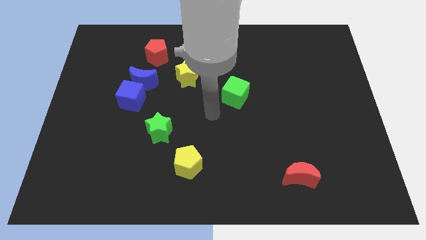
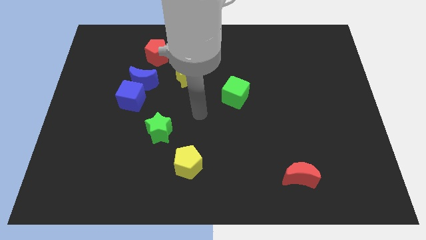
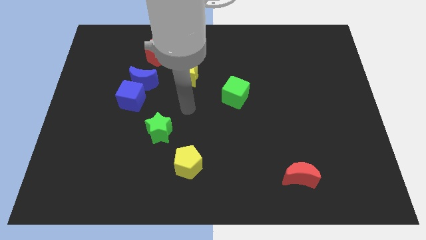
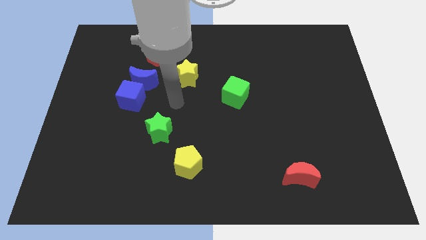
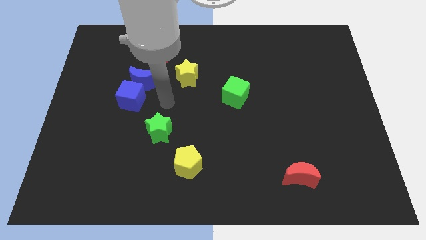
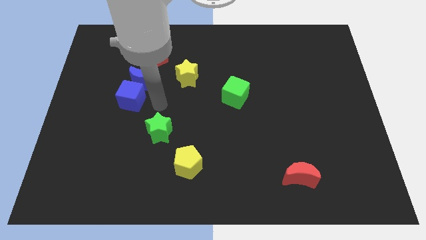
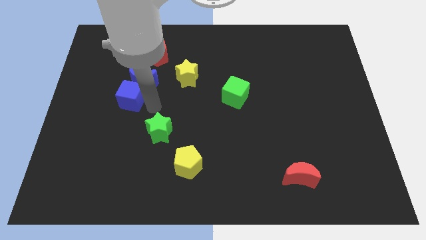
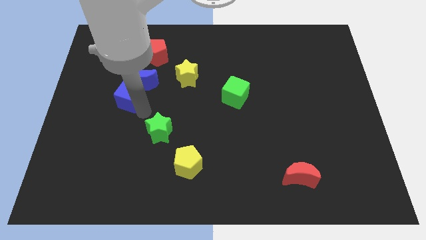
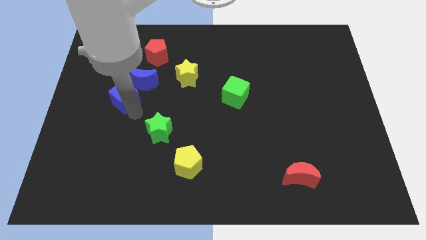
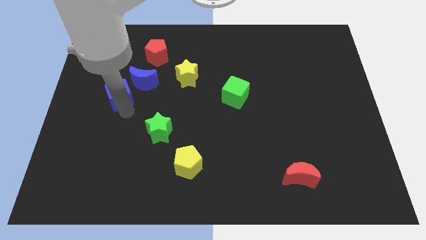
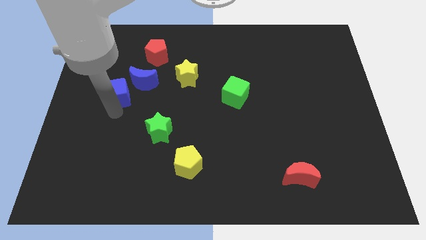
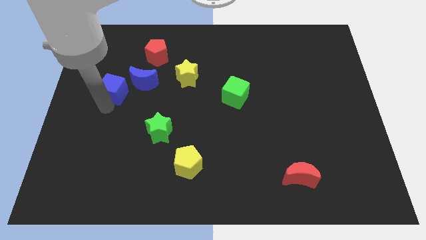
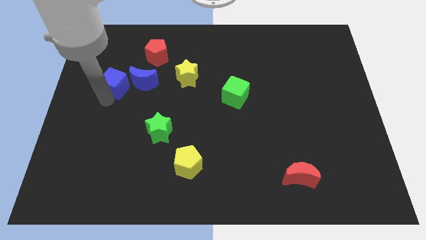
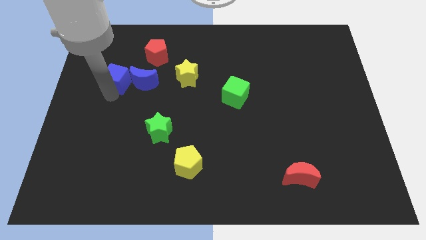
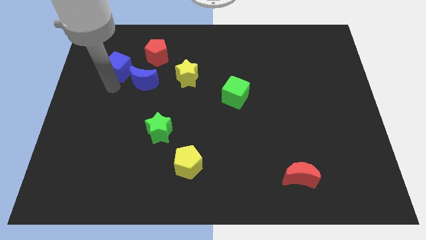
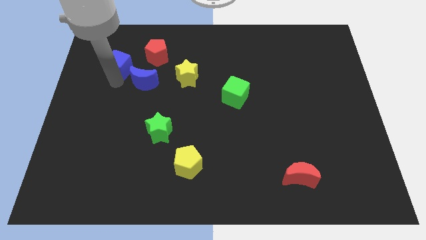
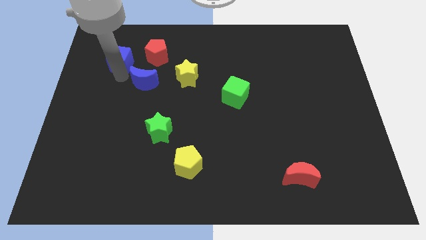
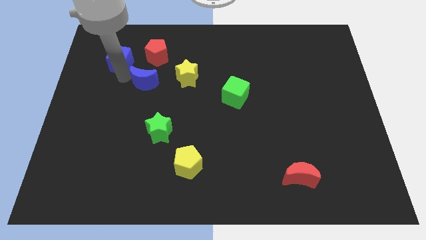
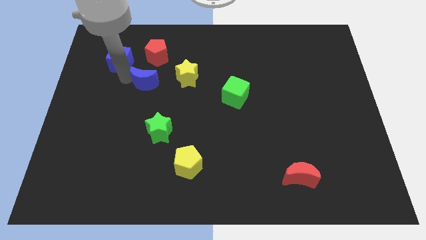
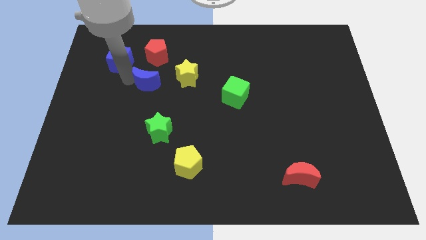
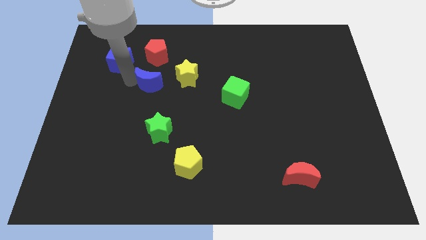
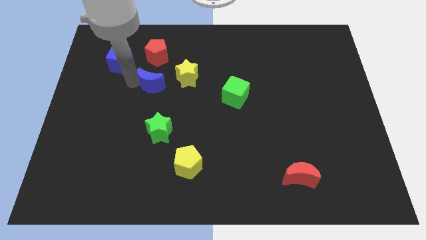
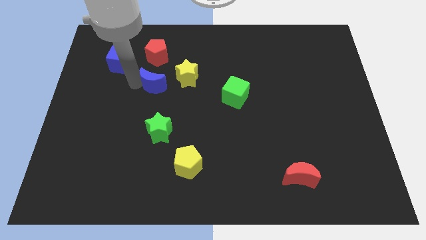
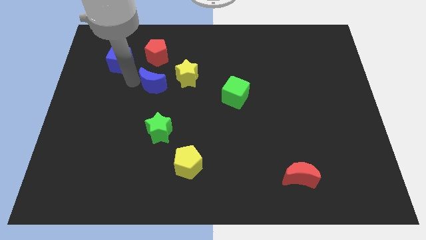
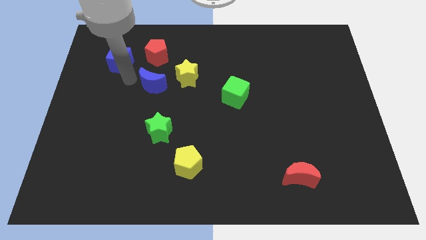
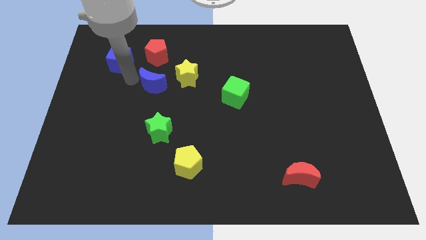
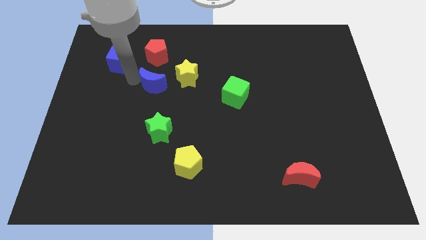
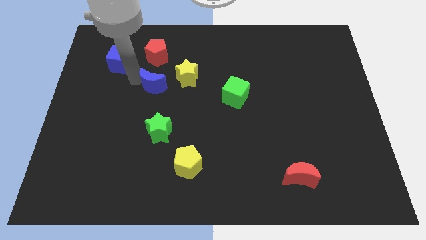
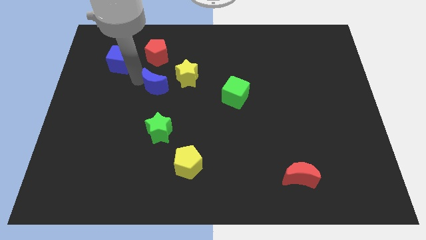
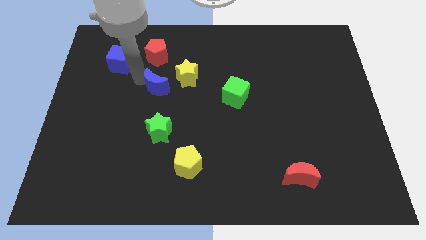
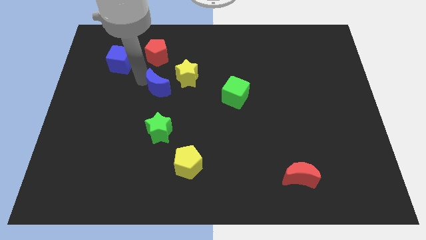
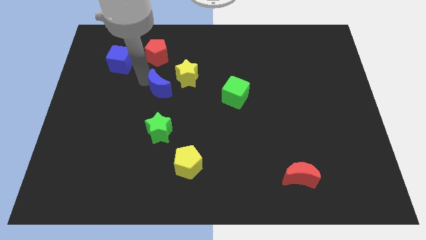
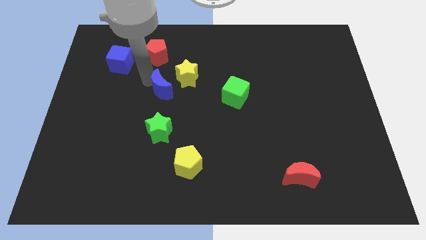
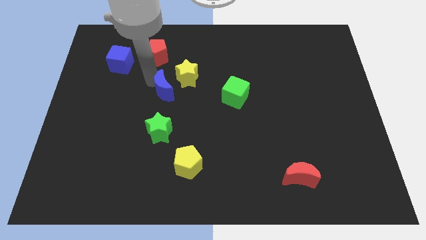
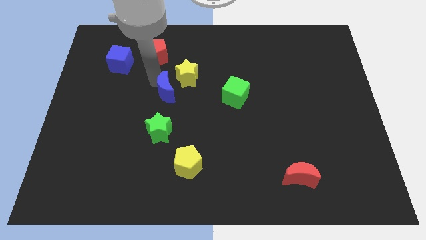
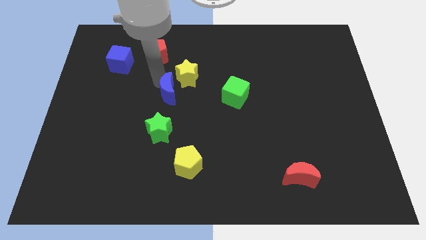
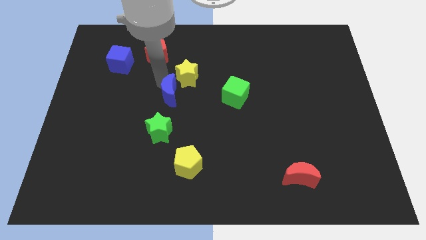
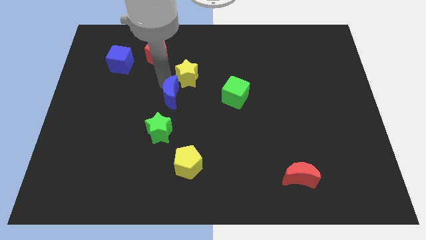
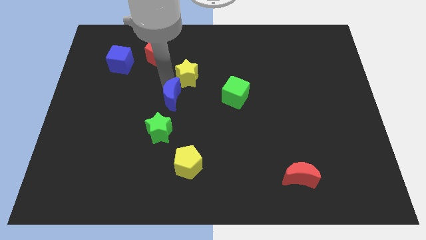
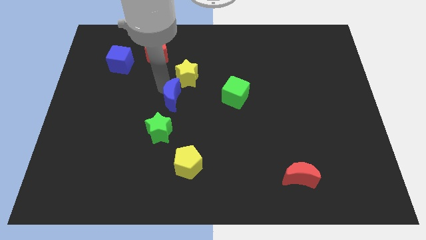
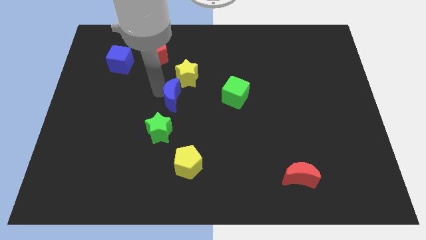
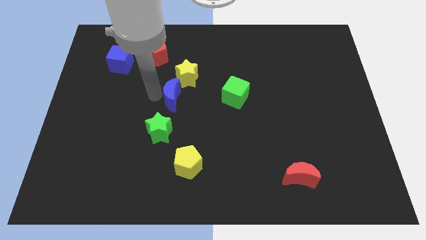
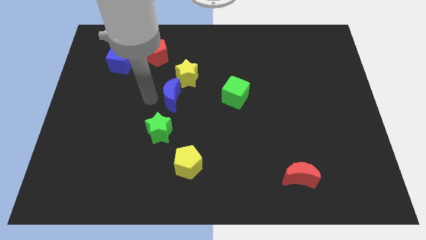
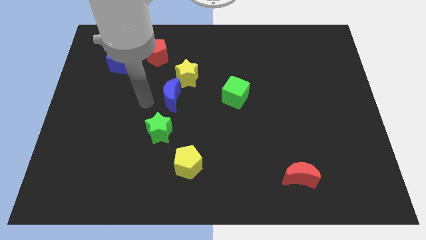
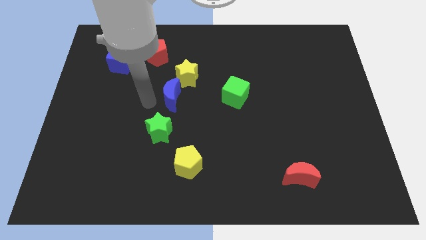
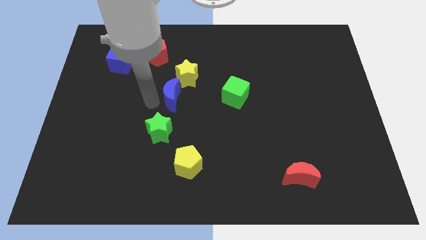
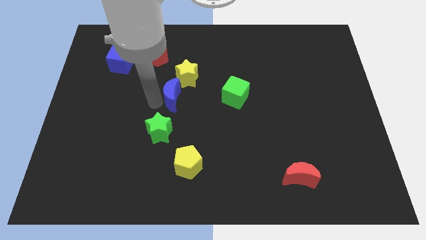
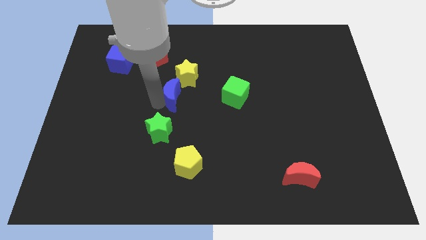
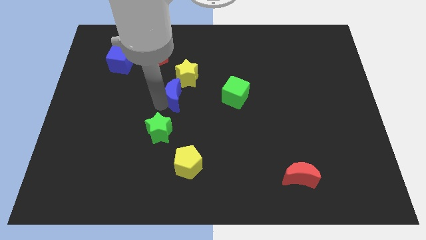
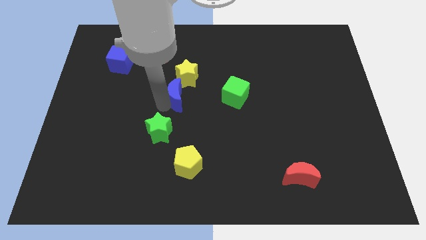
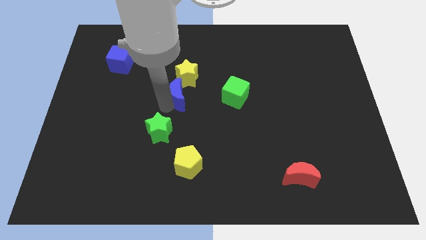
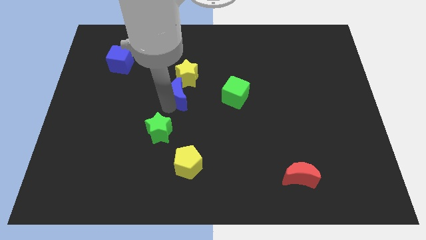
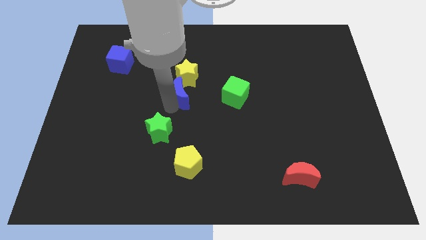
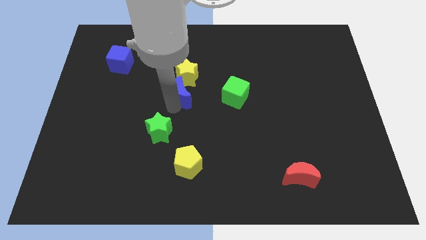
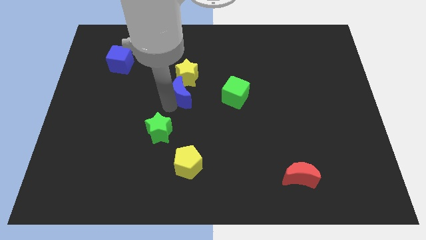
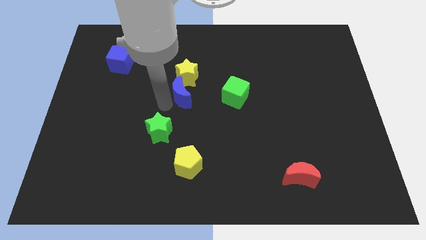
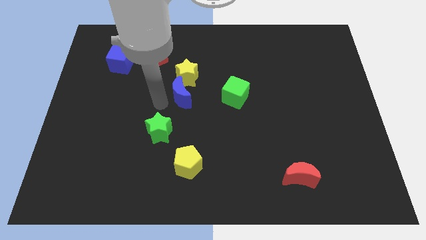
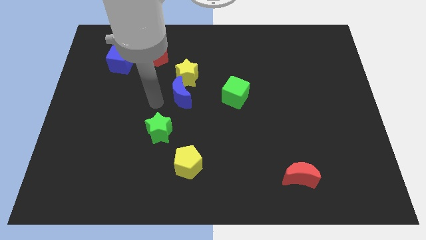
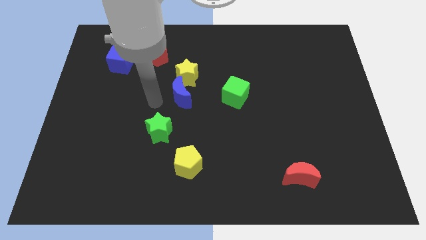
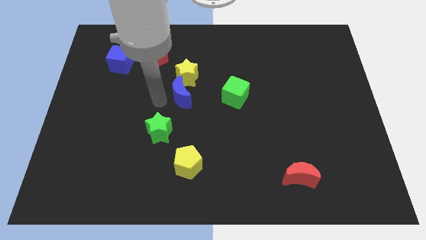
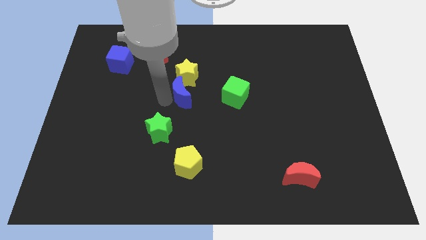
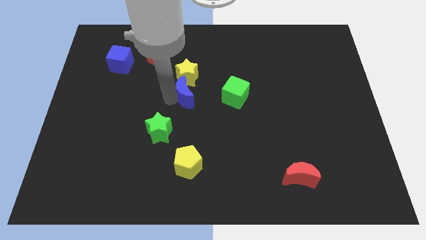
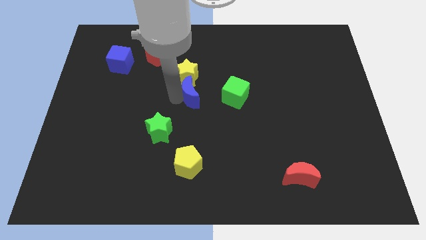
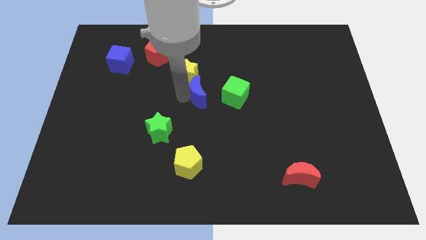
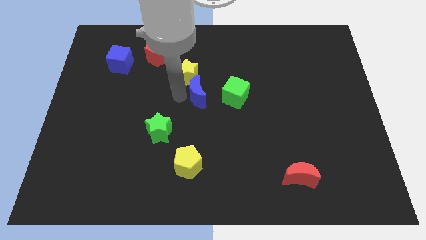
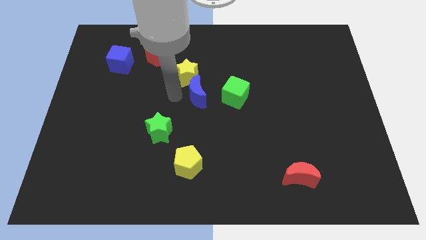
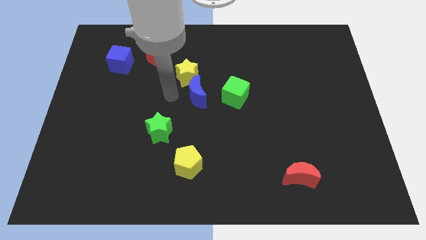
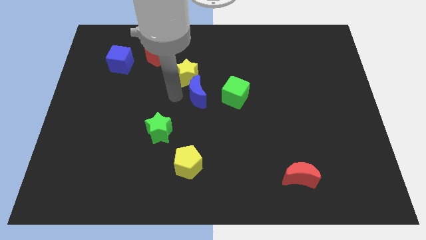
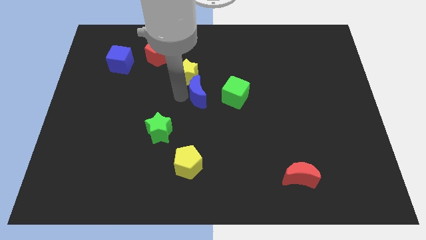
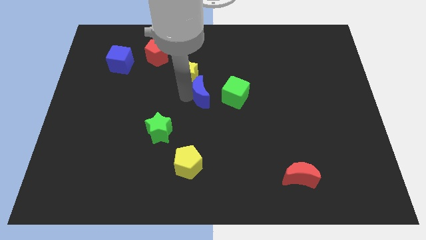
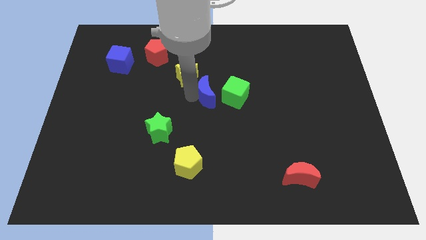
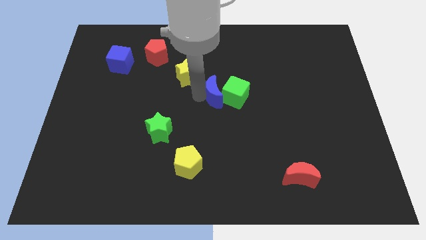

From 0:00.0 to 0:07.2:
move the blue moon towards the green cube
